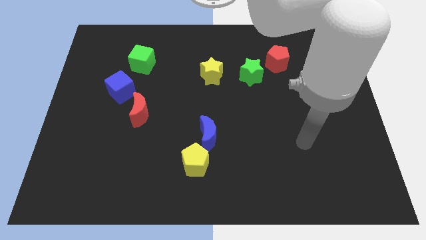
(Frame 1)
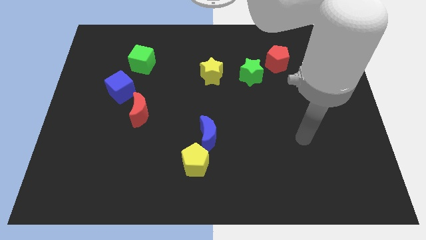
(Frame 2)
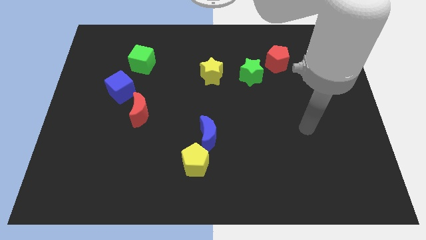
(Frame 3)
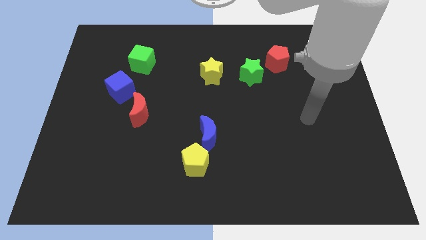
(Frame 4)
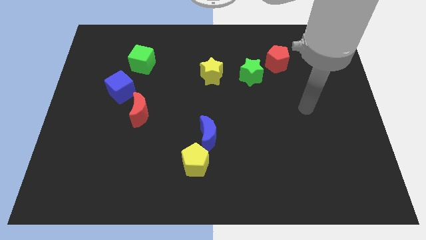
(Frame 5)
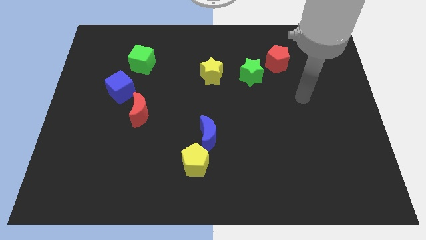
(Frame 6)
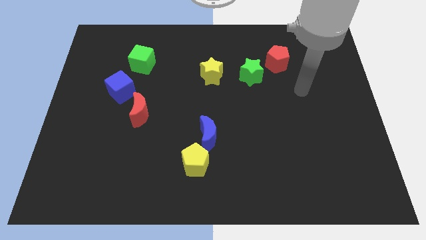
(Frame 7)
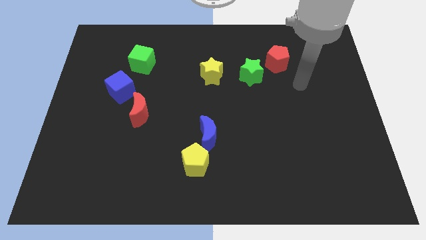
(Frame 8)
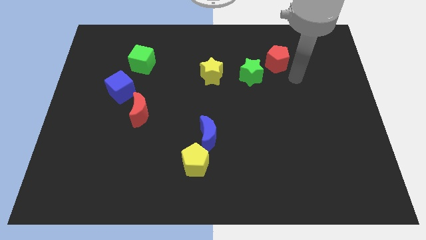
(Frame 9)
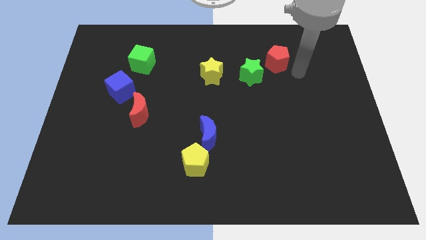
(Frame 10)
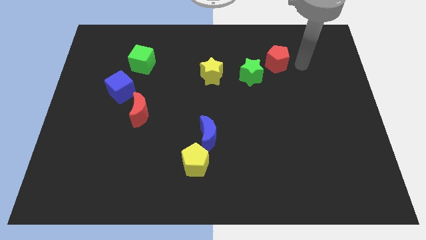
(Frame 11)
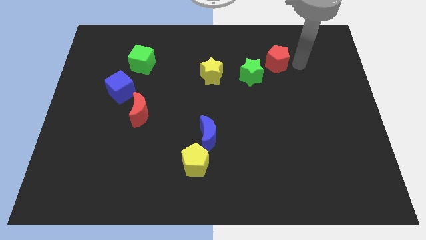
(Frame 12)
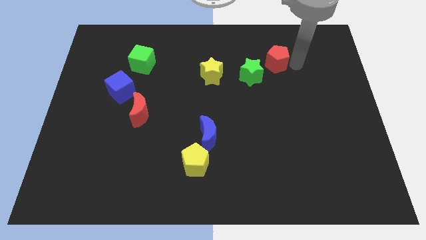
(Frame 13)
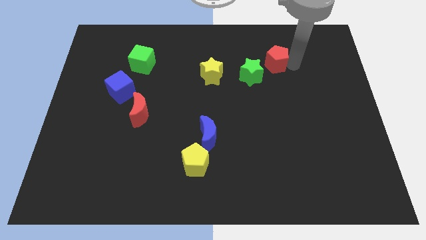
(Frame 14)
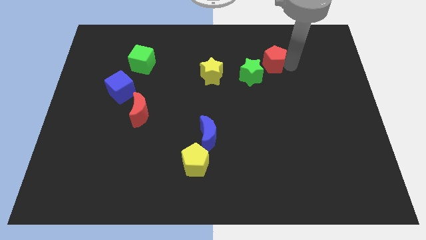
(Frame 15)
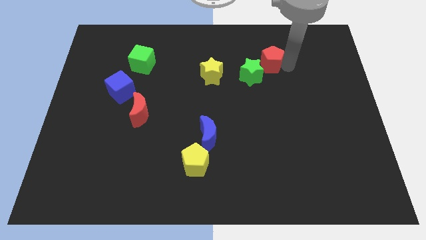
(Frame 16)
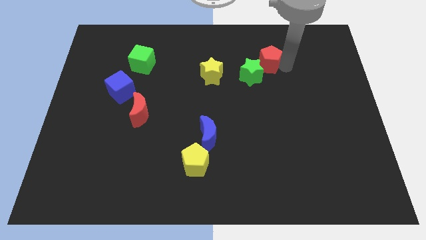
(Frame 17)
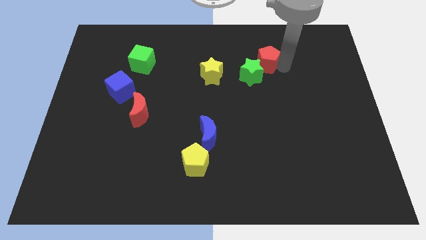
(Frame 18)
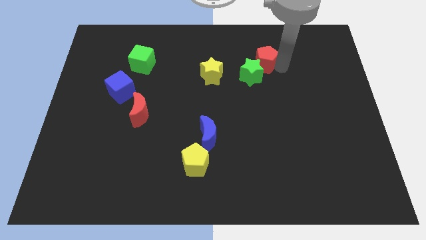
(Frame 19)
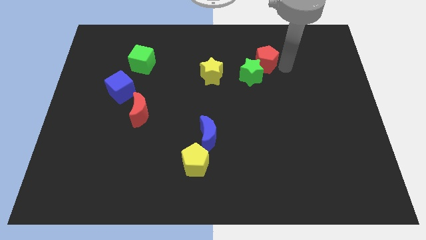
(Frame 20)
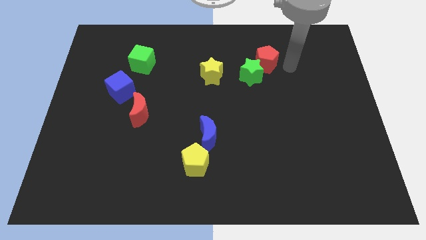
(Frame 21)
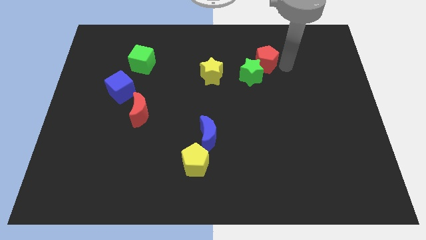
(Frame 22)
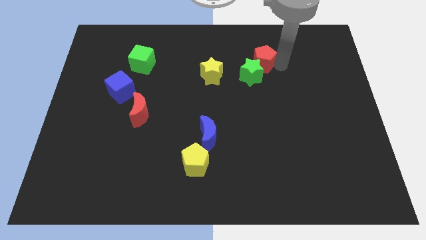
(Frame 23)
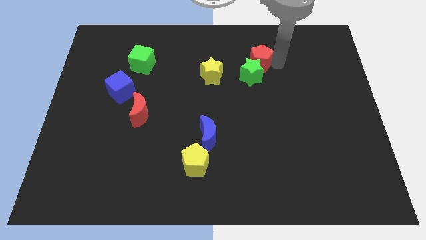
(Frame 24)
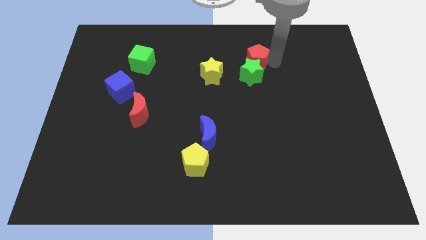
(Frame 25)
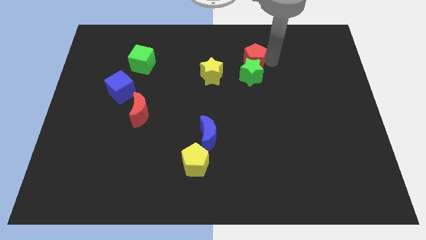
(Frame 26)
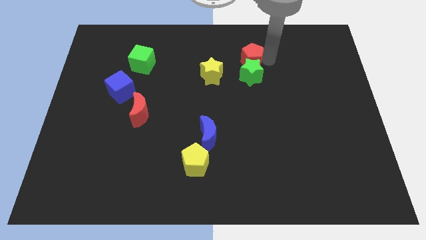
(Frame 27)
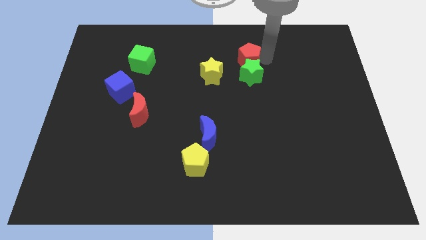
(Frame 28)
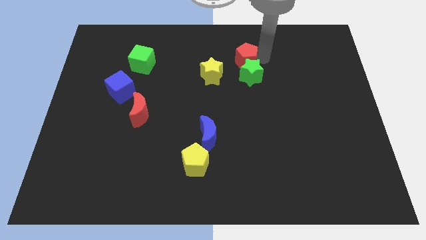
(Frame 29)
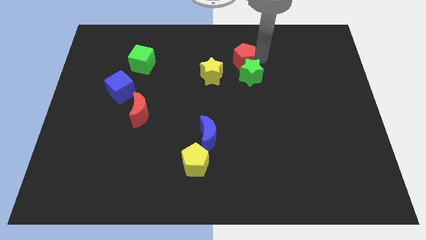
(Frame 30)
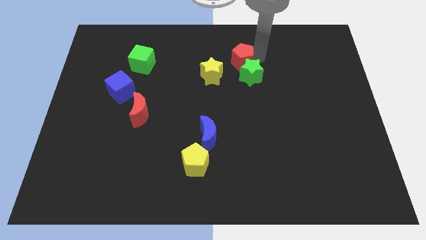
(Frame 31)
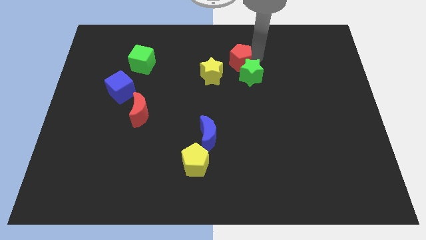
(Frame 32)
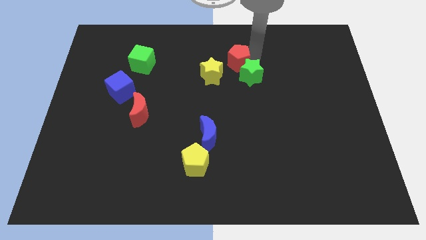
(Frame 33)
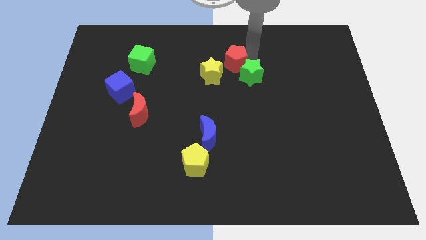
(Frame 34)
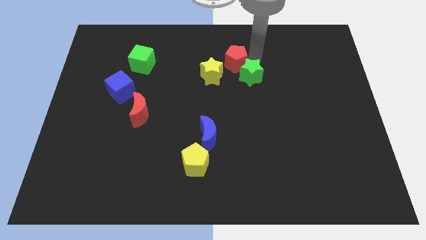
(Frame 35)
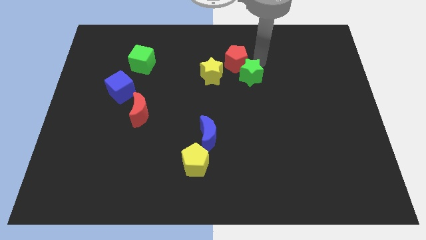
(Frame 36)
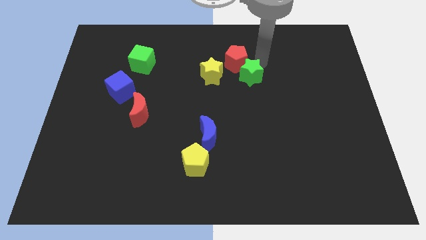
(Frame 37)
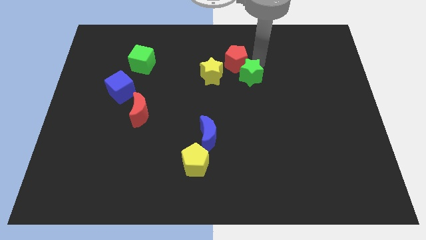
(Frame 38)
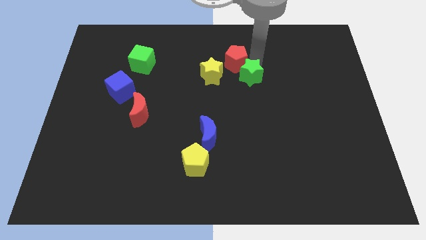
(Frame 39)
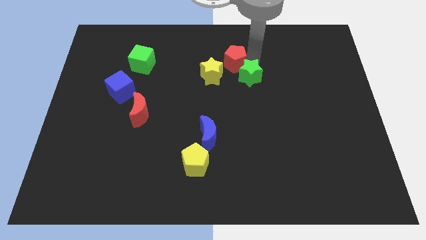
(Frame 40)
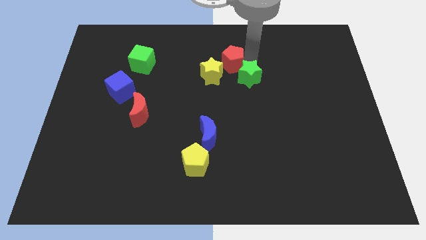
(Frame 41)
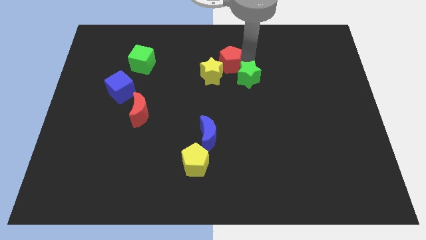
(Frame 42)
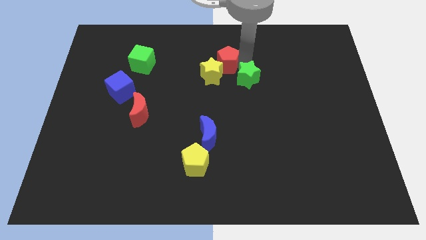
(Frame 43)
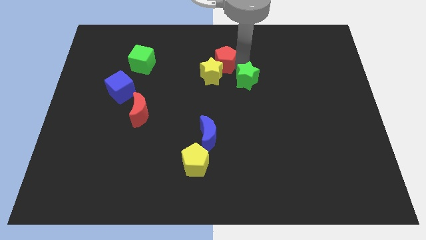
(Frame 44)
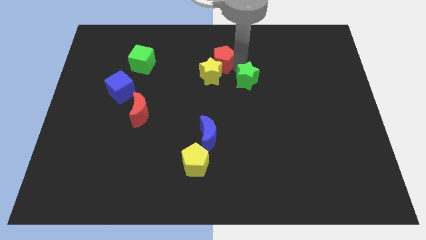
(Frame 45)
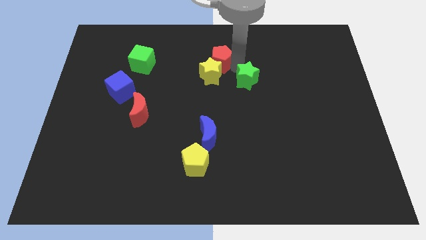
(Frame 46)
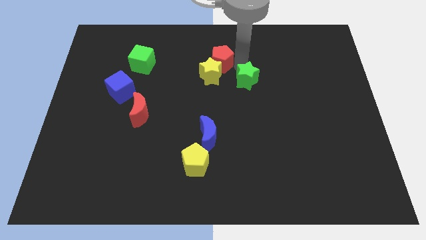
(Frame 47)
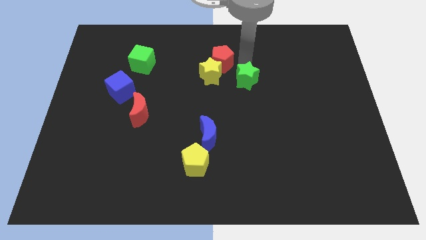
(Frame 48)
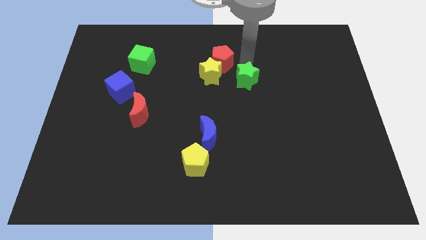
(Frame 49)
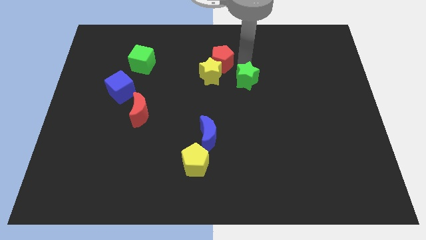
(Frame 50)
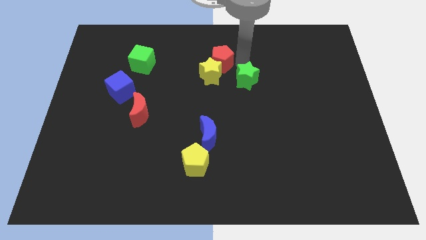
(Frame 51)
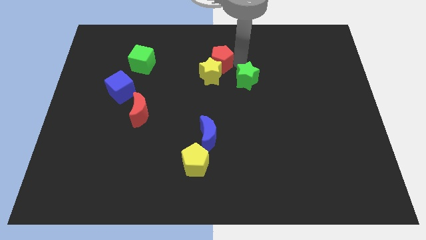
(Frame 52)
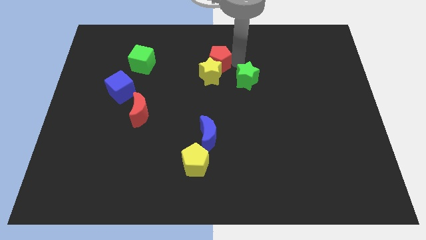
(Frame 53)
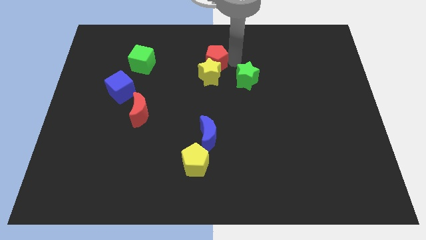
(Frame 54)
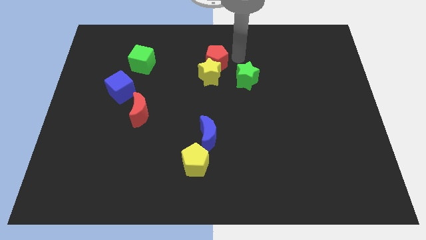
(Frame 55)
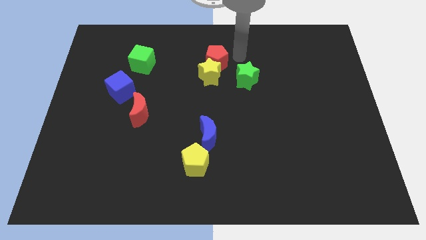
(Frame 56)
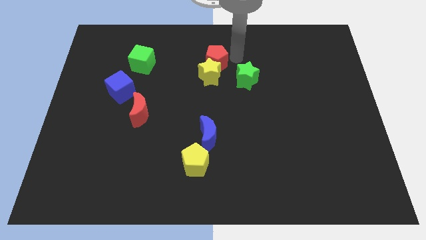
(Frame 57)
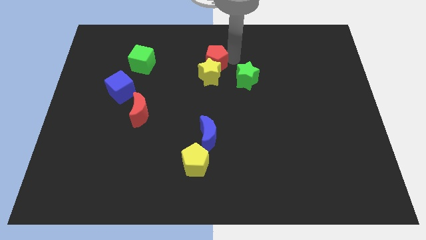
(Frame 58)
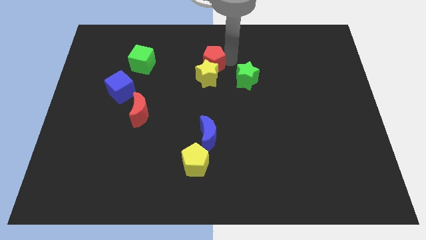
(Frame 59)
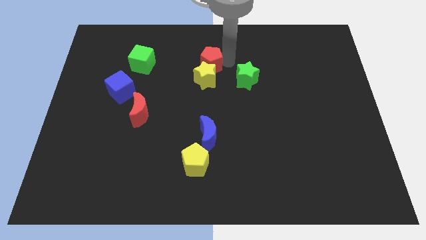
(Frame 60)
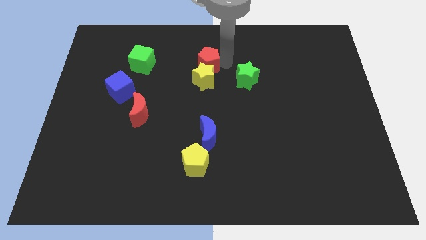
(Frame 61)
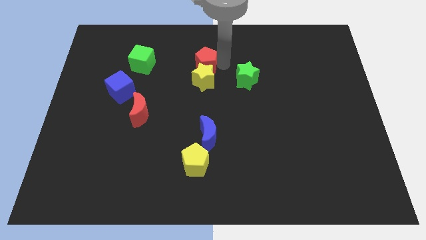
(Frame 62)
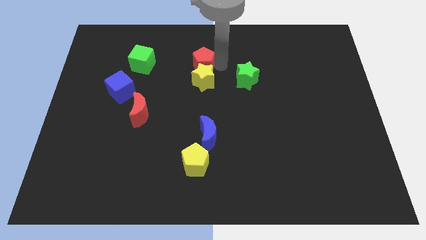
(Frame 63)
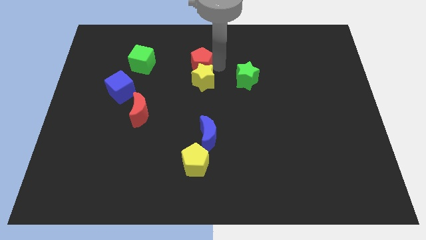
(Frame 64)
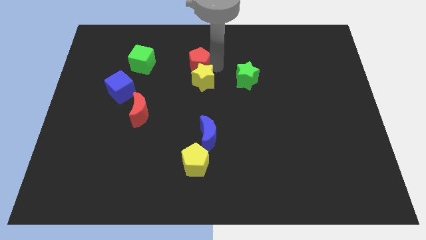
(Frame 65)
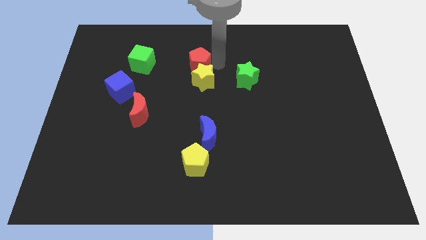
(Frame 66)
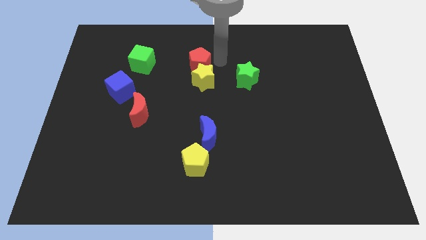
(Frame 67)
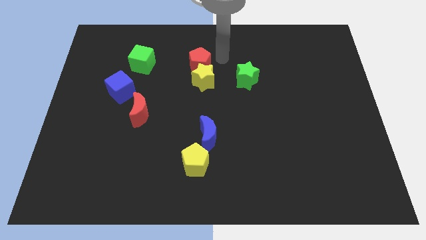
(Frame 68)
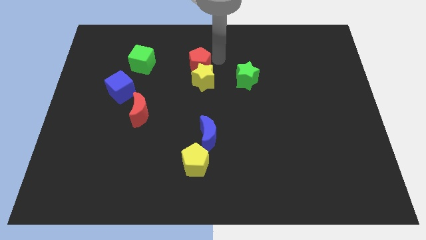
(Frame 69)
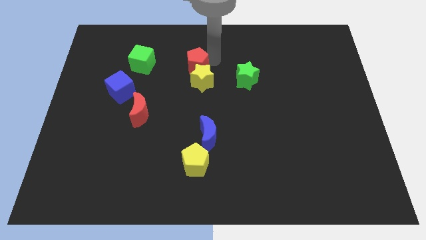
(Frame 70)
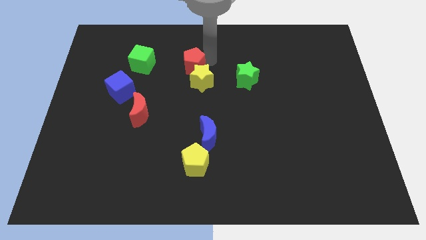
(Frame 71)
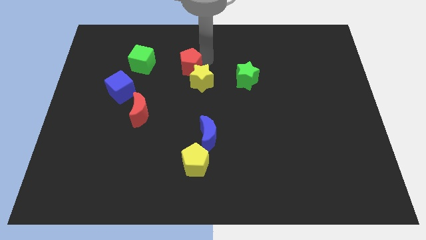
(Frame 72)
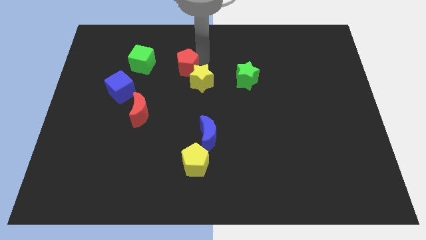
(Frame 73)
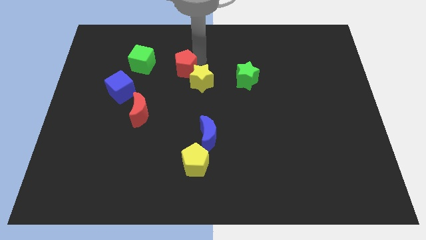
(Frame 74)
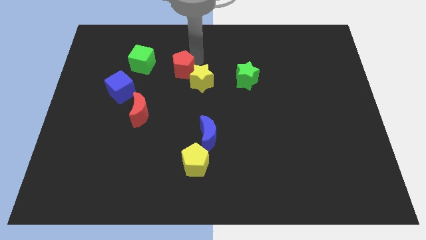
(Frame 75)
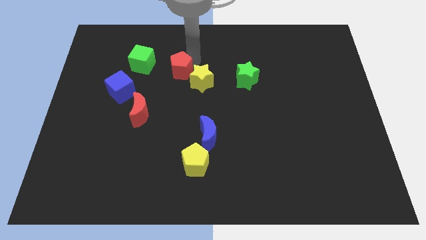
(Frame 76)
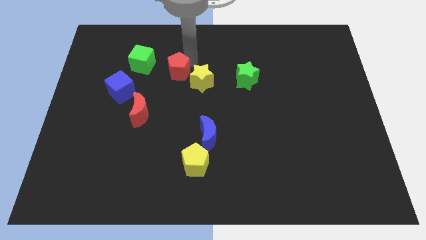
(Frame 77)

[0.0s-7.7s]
push the red pentagon diagonally down and to the right of the green cube
